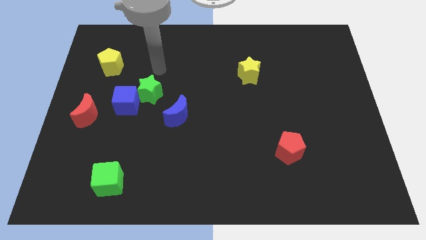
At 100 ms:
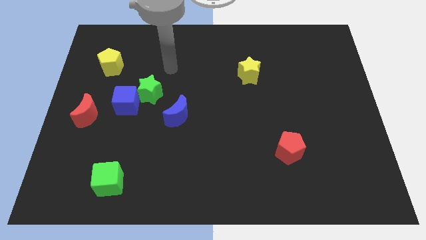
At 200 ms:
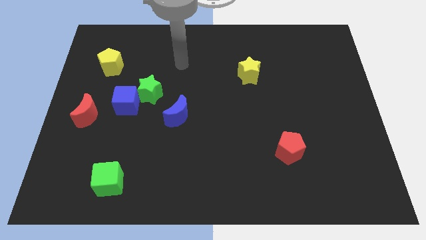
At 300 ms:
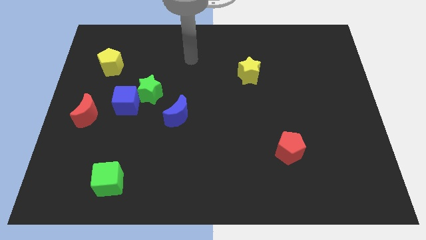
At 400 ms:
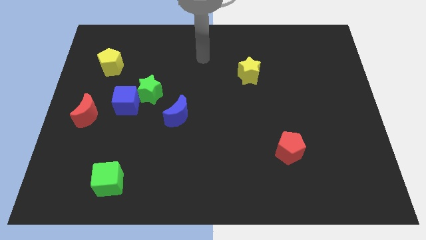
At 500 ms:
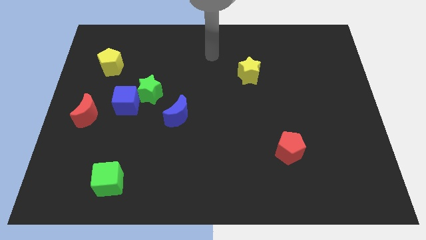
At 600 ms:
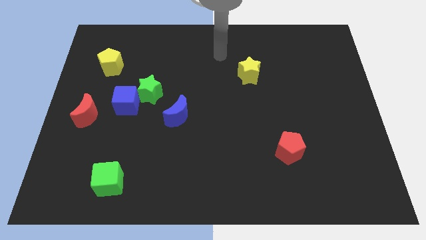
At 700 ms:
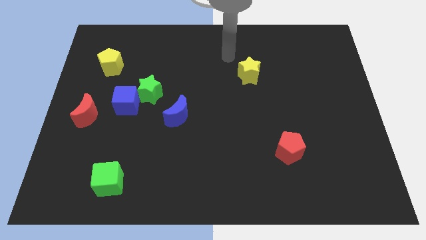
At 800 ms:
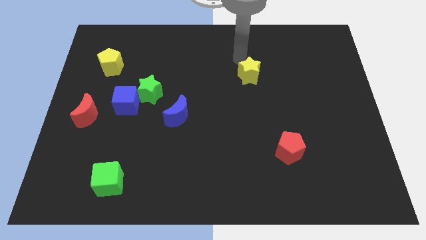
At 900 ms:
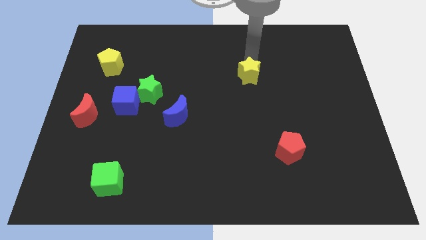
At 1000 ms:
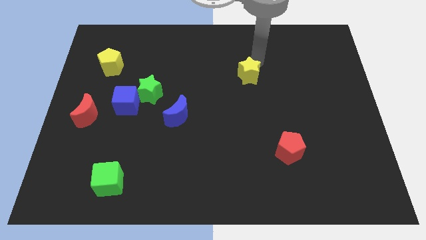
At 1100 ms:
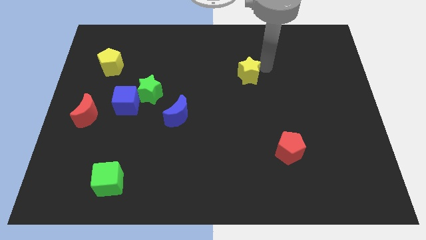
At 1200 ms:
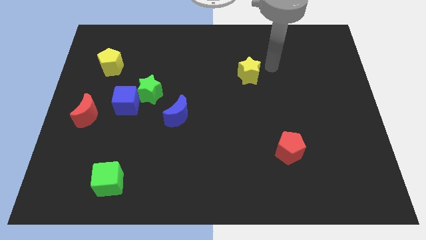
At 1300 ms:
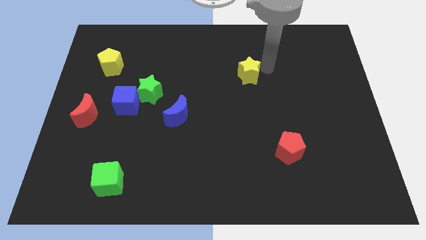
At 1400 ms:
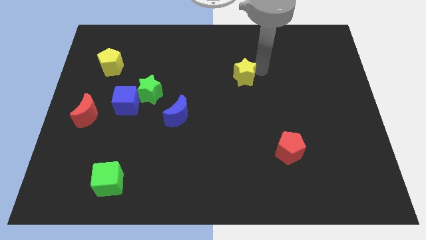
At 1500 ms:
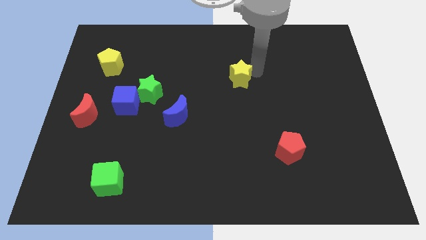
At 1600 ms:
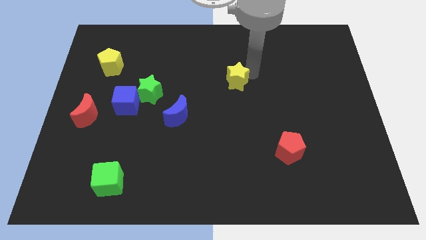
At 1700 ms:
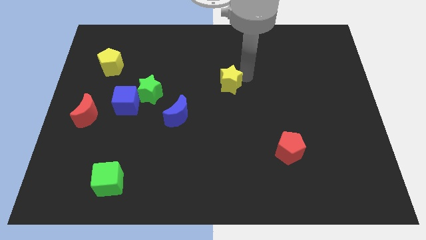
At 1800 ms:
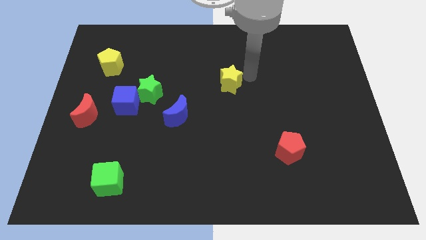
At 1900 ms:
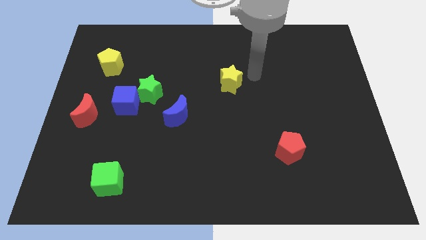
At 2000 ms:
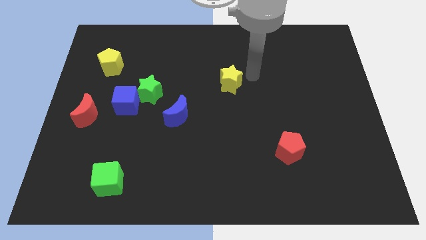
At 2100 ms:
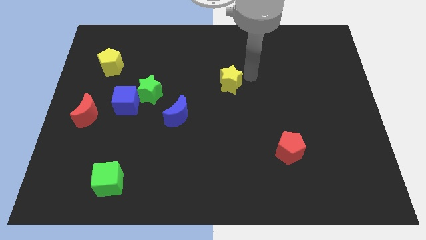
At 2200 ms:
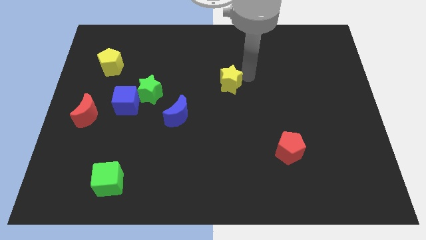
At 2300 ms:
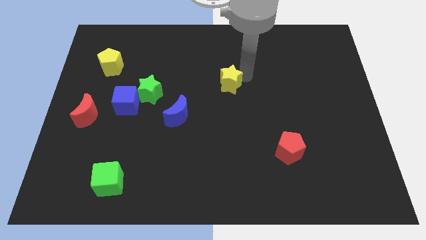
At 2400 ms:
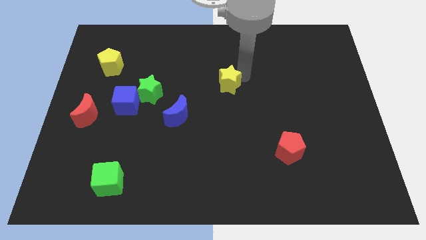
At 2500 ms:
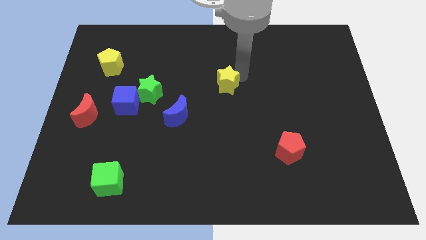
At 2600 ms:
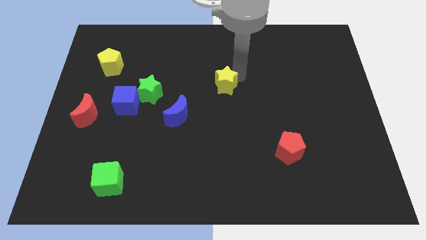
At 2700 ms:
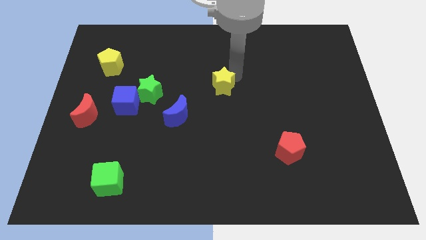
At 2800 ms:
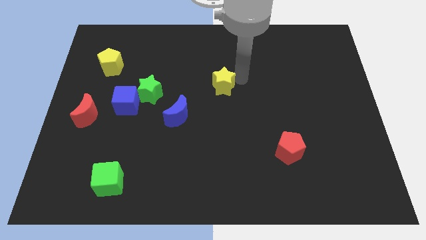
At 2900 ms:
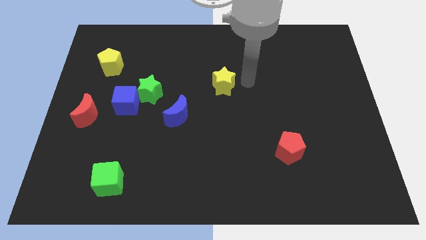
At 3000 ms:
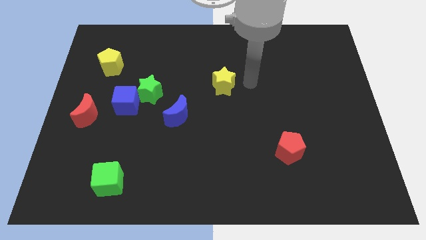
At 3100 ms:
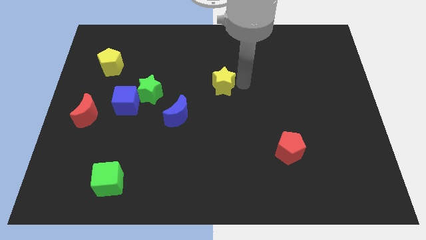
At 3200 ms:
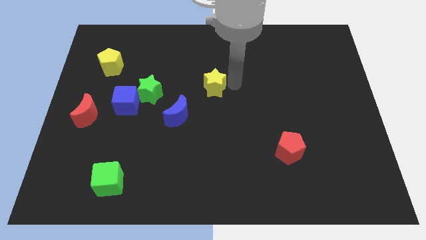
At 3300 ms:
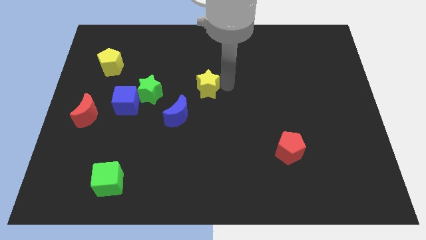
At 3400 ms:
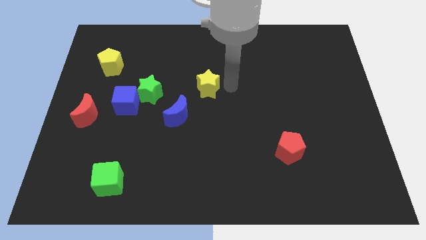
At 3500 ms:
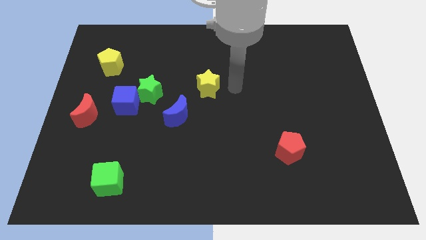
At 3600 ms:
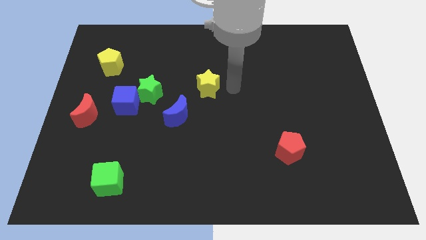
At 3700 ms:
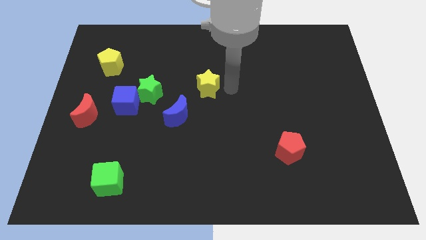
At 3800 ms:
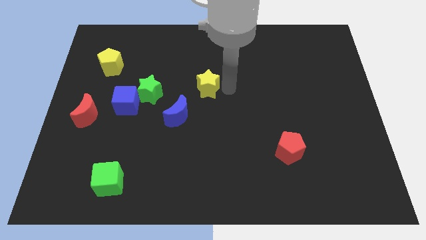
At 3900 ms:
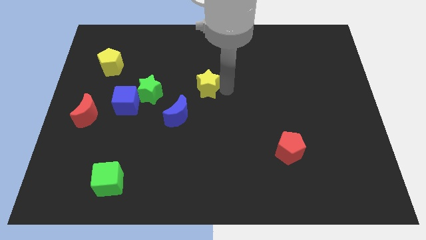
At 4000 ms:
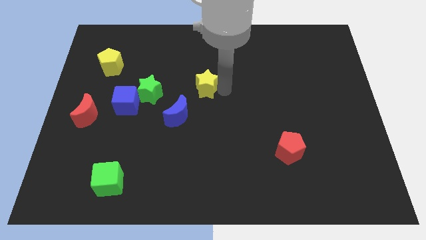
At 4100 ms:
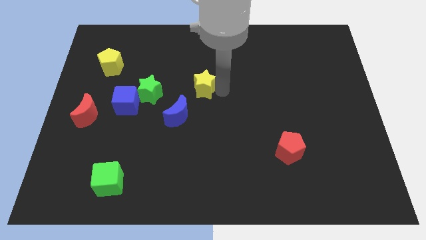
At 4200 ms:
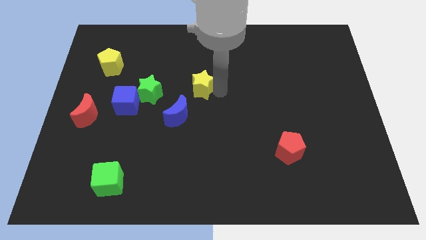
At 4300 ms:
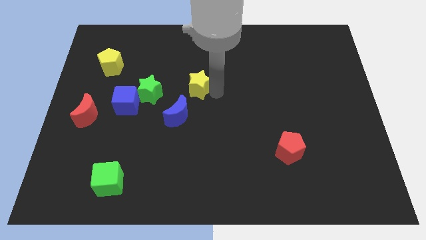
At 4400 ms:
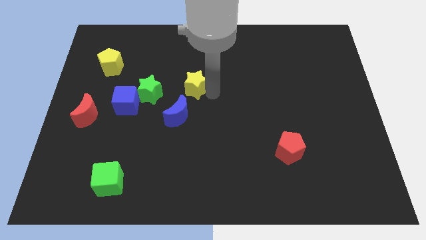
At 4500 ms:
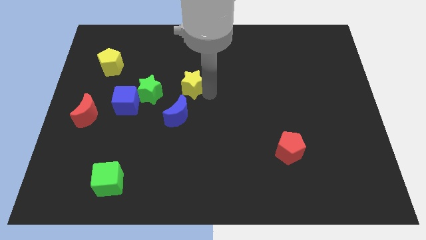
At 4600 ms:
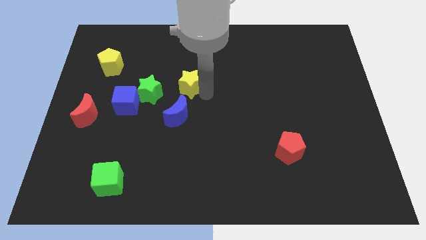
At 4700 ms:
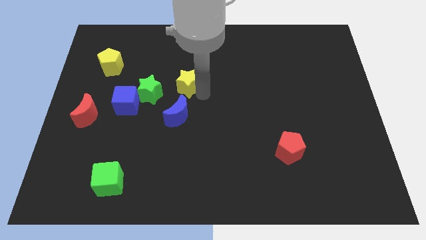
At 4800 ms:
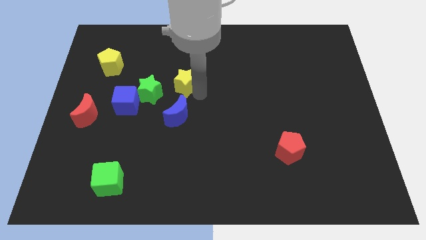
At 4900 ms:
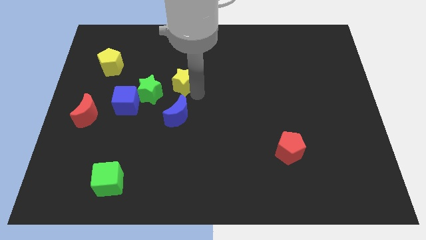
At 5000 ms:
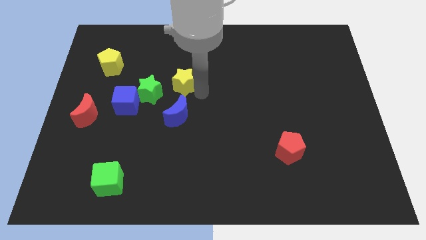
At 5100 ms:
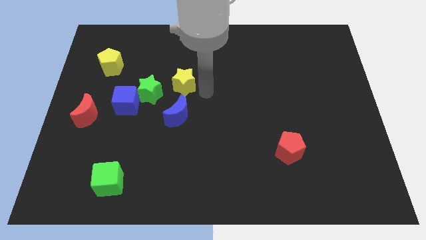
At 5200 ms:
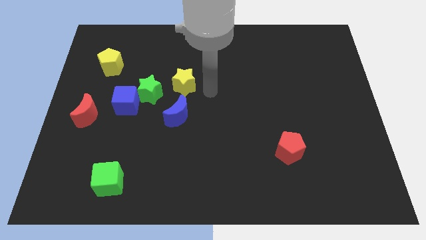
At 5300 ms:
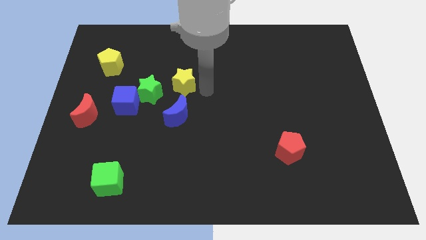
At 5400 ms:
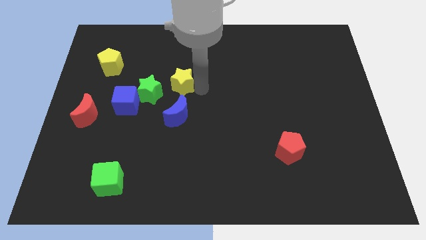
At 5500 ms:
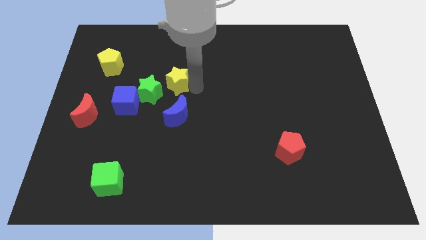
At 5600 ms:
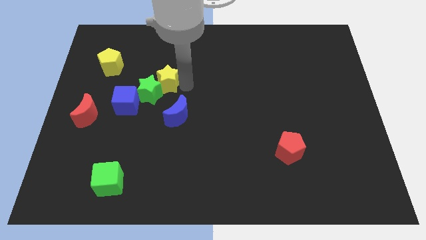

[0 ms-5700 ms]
slide the yellow star to the left

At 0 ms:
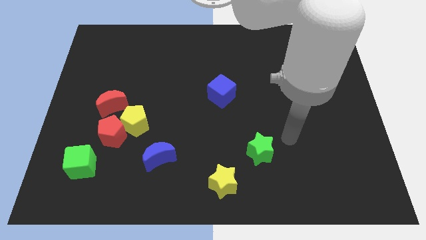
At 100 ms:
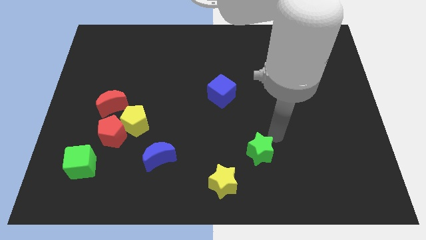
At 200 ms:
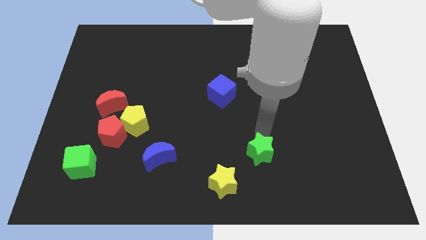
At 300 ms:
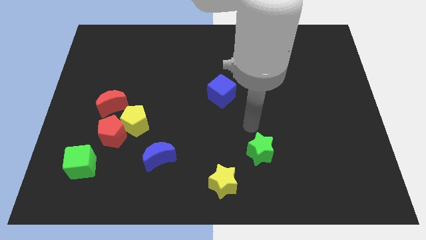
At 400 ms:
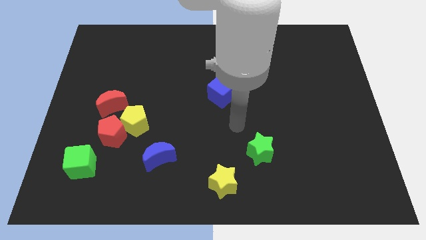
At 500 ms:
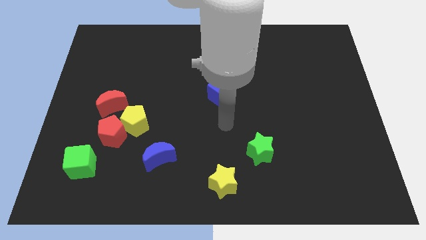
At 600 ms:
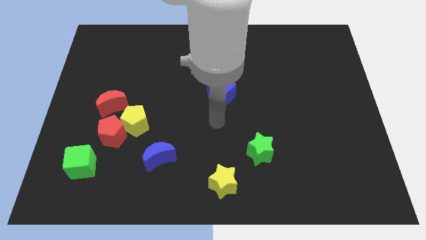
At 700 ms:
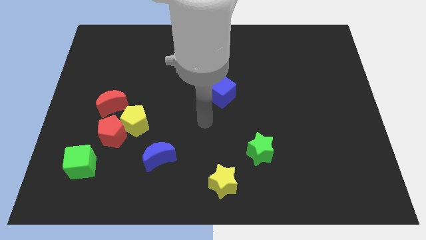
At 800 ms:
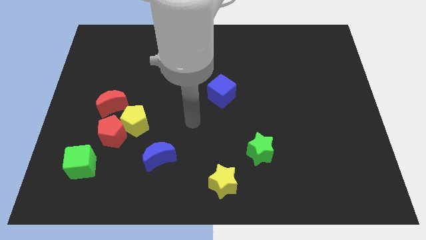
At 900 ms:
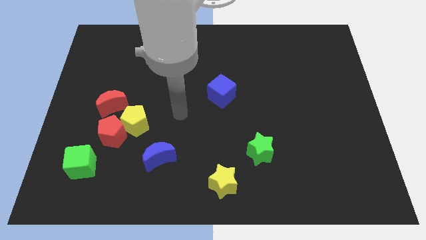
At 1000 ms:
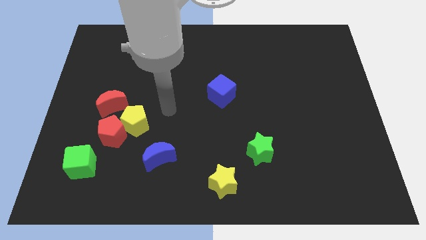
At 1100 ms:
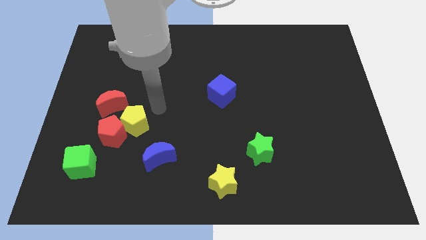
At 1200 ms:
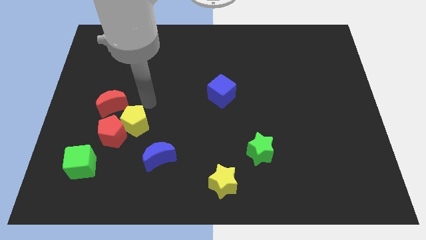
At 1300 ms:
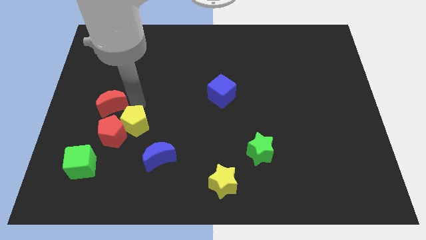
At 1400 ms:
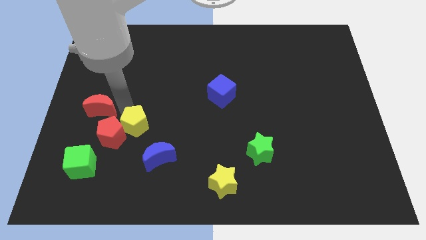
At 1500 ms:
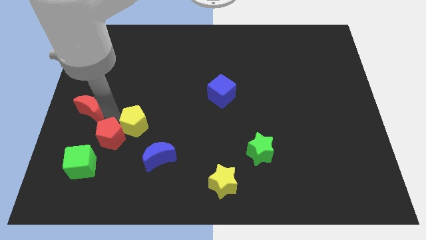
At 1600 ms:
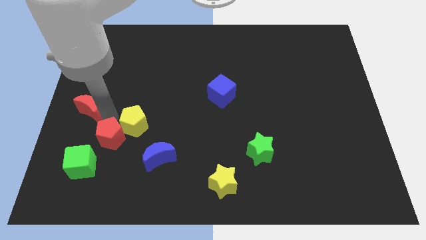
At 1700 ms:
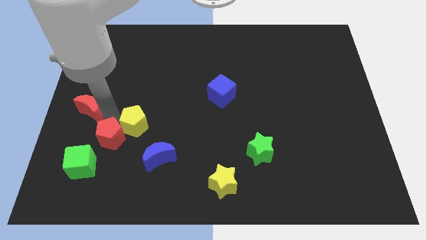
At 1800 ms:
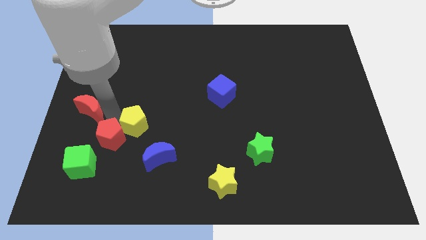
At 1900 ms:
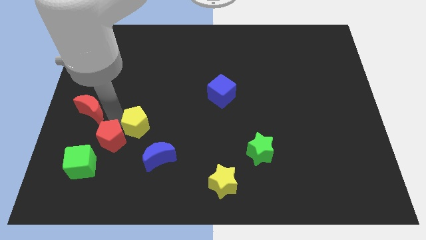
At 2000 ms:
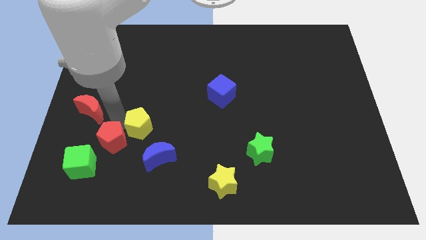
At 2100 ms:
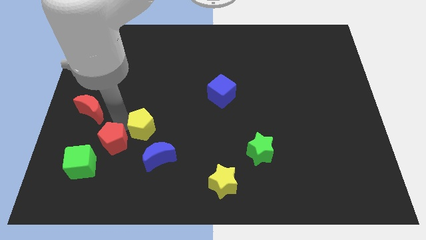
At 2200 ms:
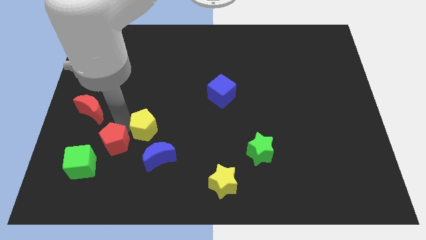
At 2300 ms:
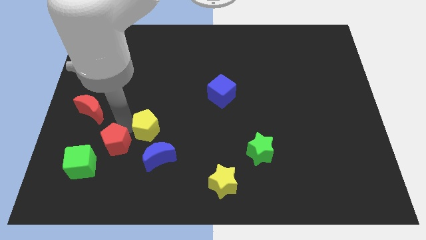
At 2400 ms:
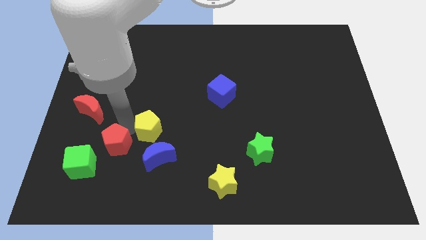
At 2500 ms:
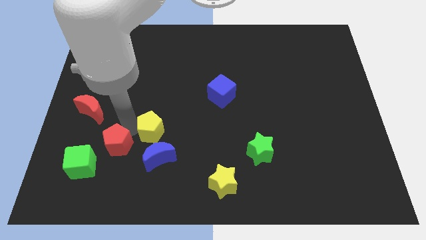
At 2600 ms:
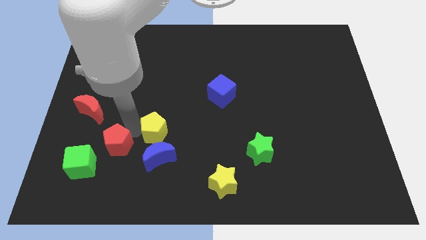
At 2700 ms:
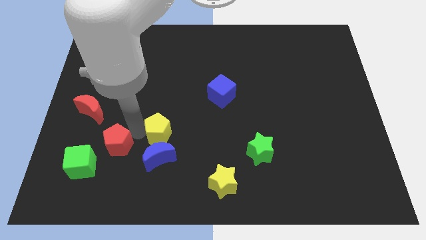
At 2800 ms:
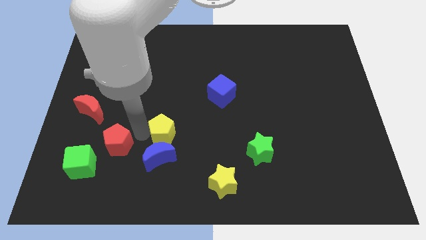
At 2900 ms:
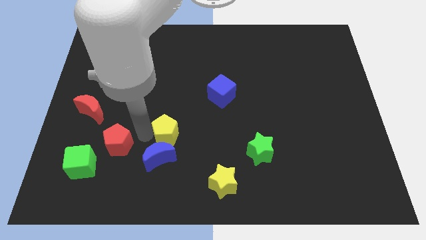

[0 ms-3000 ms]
push the yellow pentagon right a little bit
